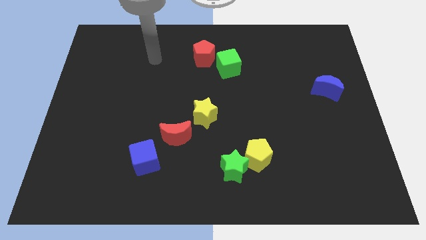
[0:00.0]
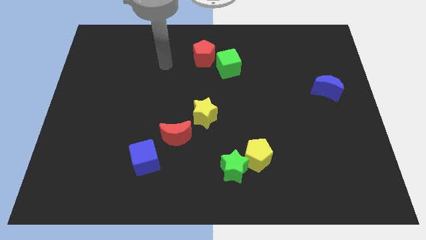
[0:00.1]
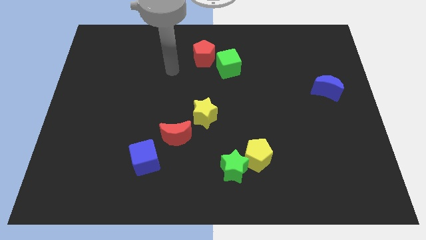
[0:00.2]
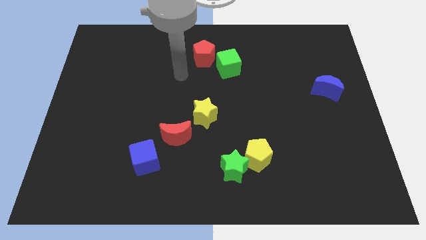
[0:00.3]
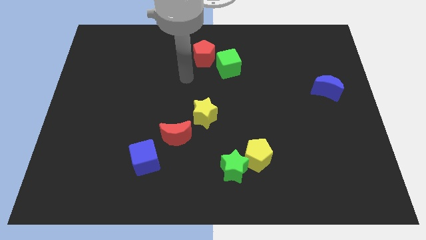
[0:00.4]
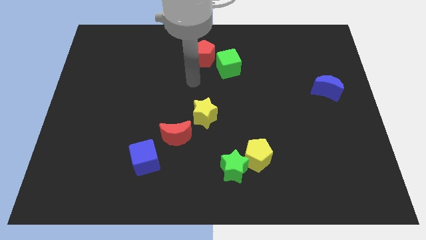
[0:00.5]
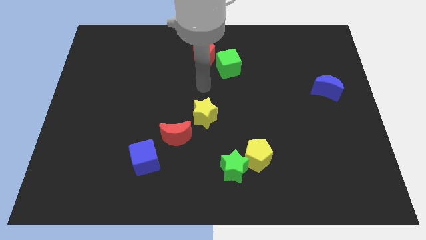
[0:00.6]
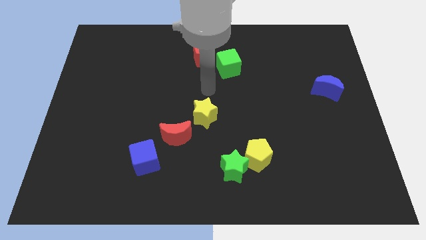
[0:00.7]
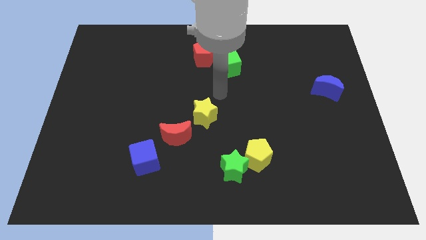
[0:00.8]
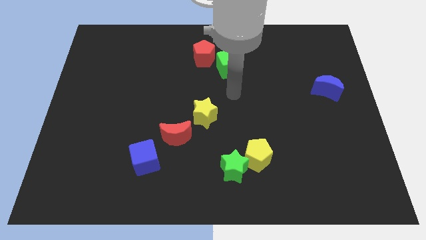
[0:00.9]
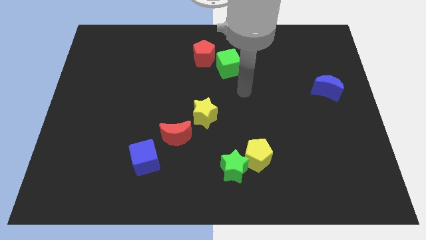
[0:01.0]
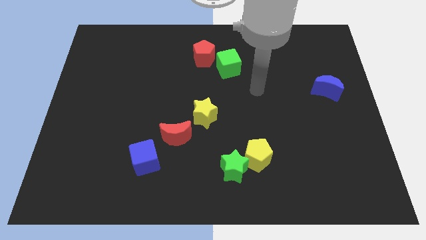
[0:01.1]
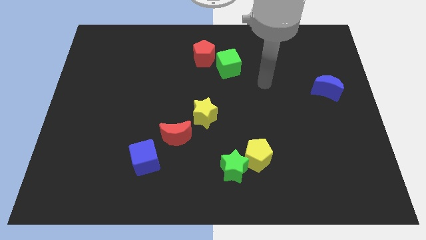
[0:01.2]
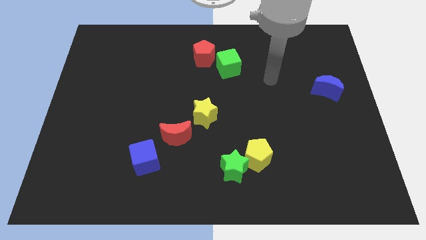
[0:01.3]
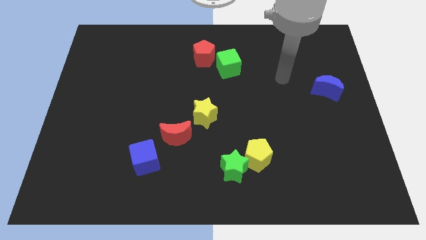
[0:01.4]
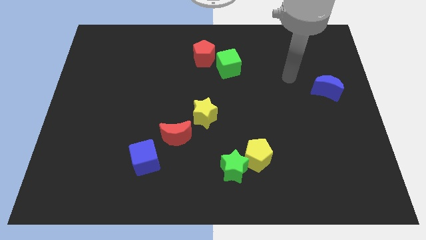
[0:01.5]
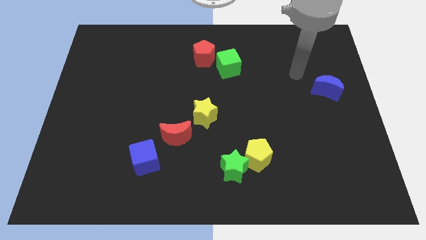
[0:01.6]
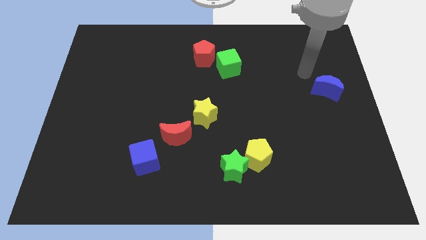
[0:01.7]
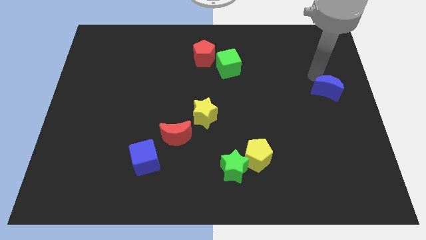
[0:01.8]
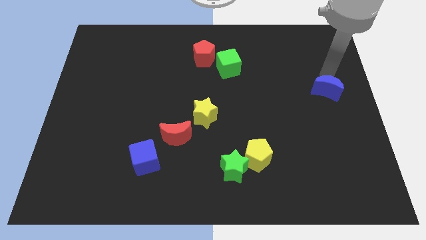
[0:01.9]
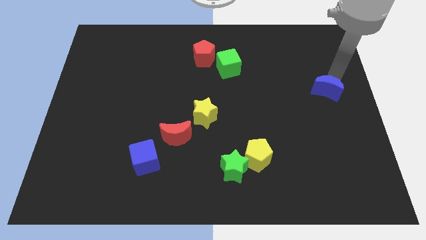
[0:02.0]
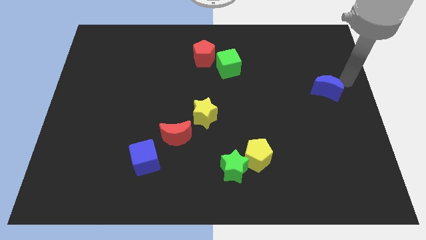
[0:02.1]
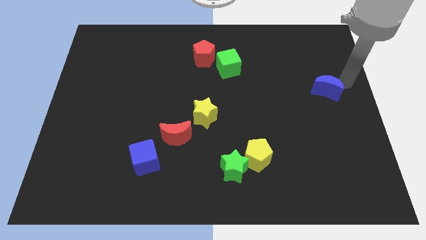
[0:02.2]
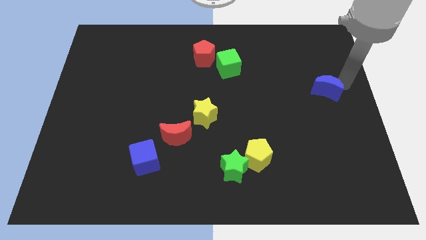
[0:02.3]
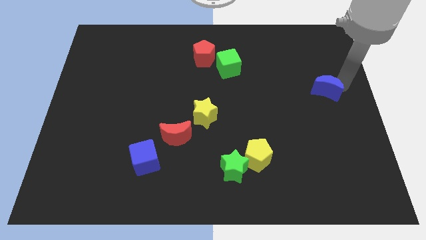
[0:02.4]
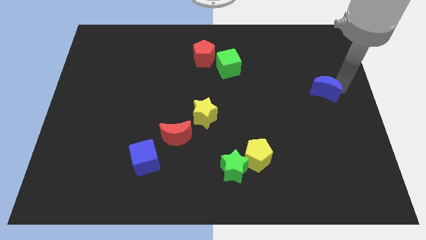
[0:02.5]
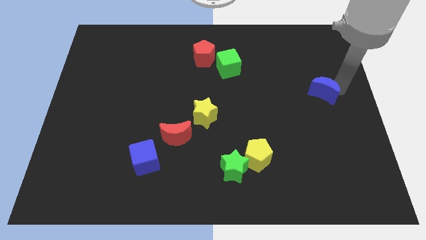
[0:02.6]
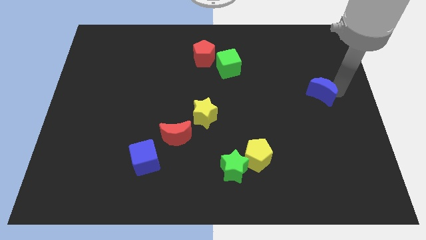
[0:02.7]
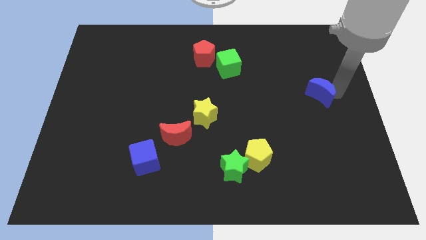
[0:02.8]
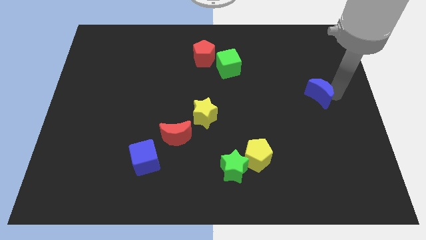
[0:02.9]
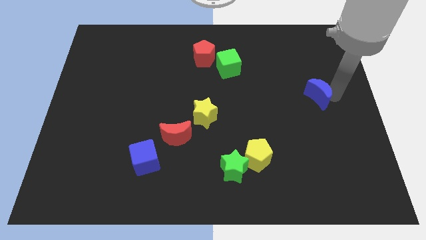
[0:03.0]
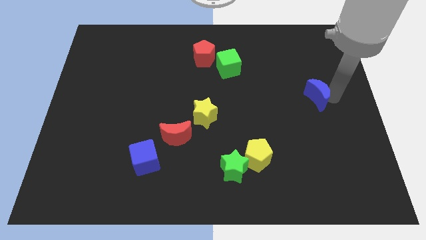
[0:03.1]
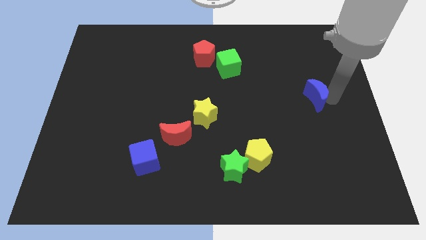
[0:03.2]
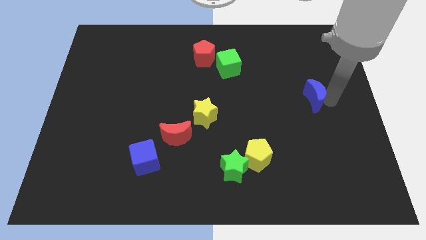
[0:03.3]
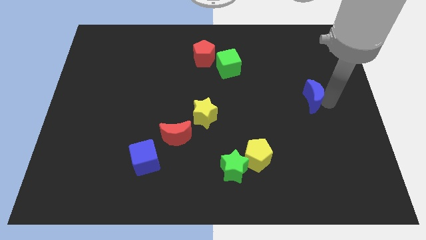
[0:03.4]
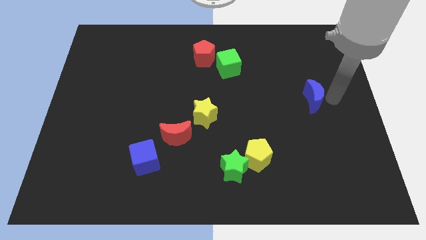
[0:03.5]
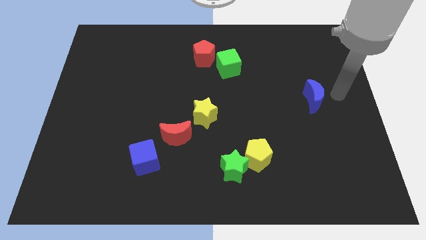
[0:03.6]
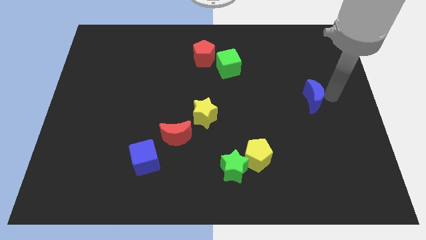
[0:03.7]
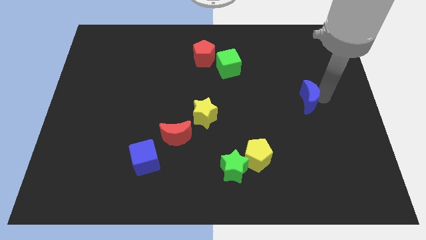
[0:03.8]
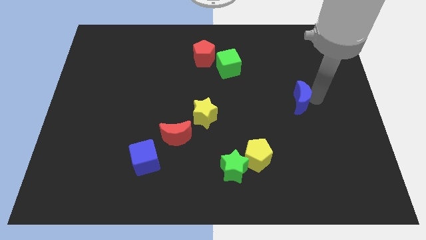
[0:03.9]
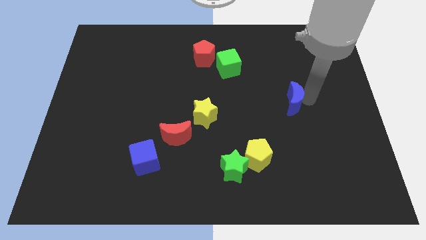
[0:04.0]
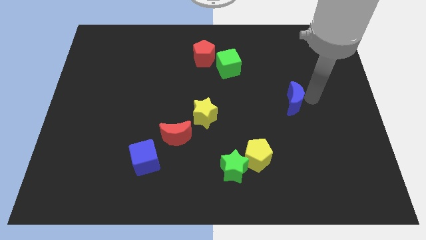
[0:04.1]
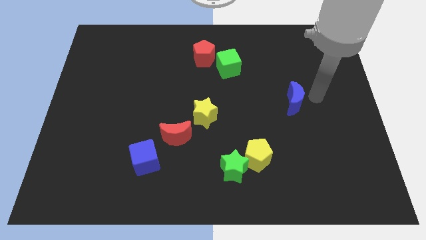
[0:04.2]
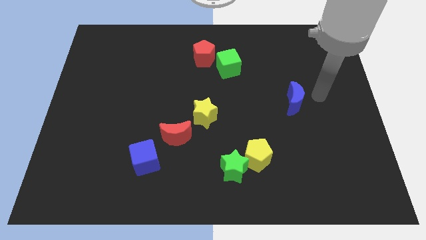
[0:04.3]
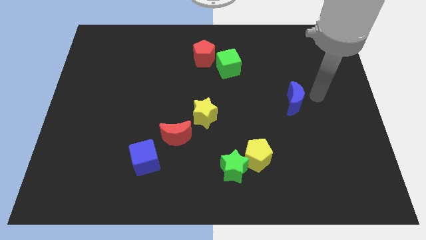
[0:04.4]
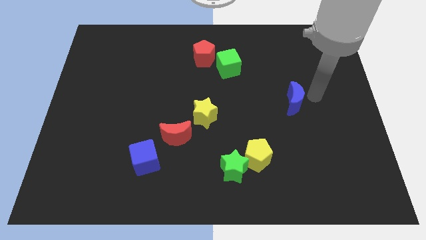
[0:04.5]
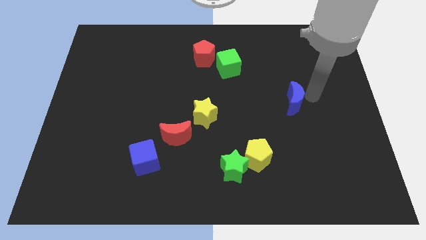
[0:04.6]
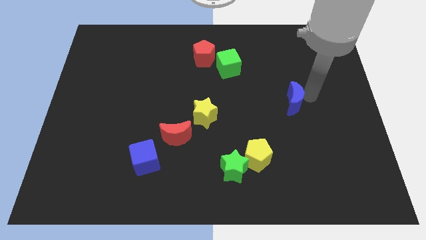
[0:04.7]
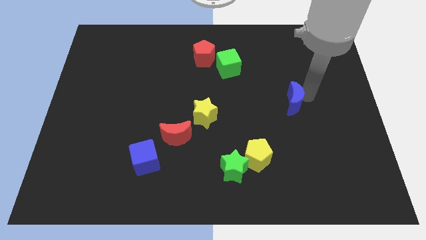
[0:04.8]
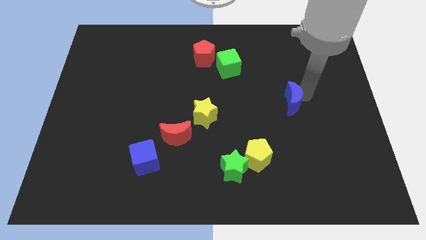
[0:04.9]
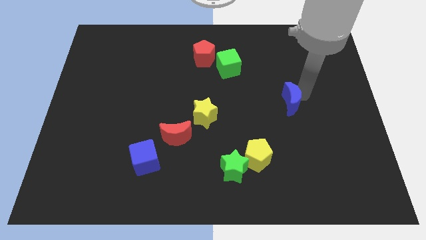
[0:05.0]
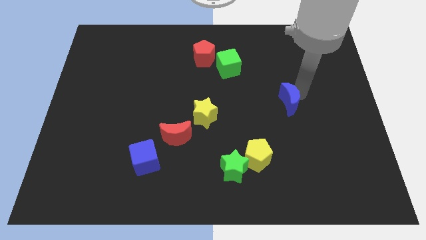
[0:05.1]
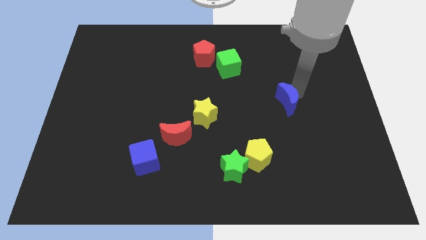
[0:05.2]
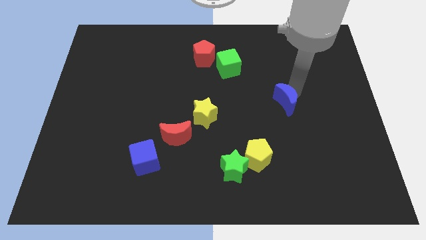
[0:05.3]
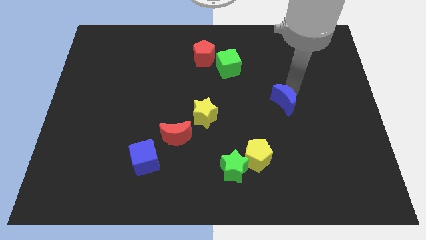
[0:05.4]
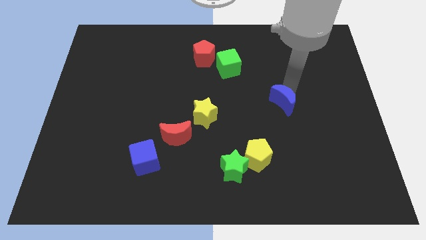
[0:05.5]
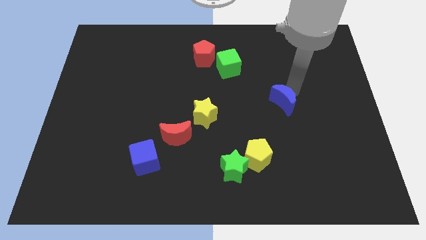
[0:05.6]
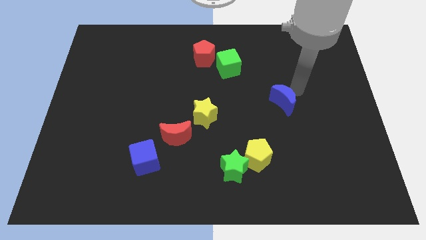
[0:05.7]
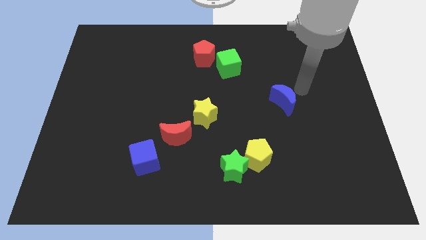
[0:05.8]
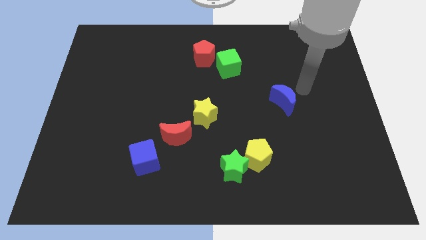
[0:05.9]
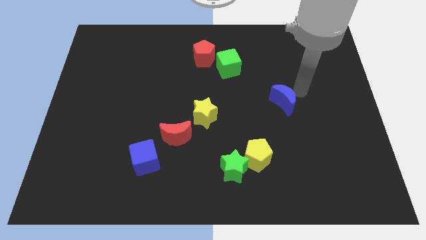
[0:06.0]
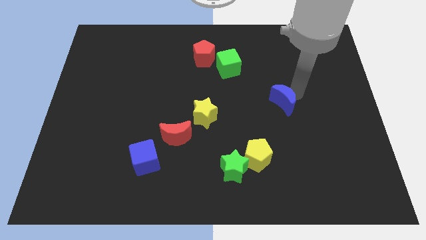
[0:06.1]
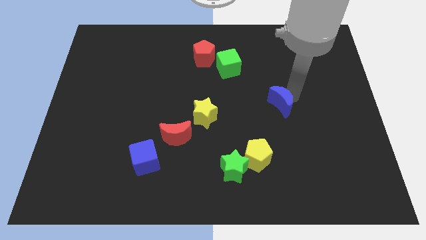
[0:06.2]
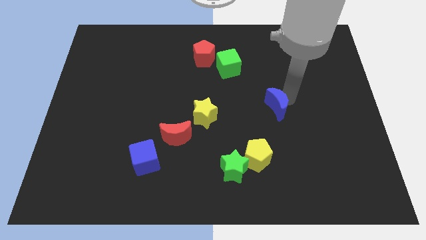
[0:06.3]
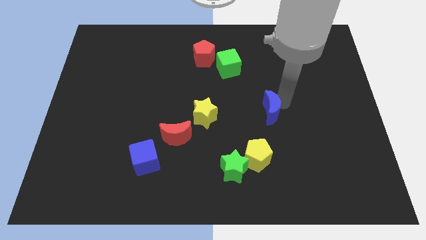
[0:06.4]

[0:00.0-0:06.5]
put the blue moon to the top of the yellow pentagon

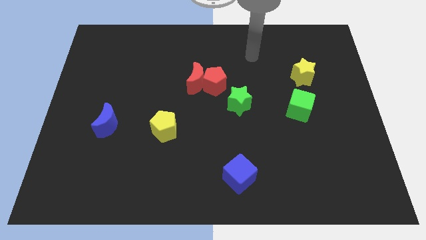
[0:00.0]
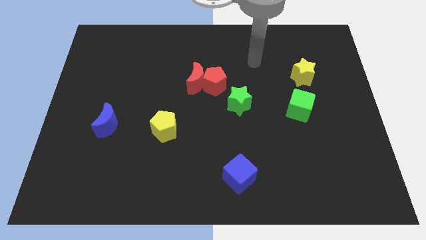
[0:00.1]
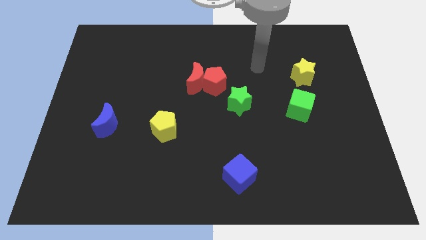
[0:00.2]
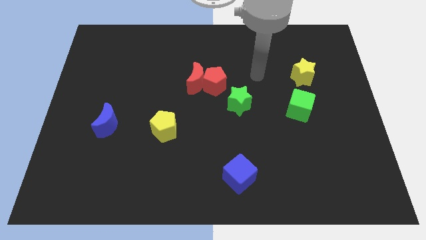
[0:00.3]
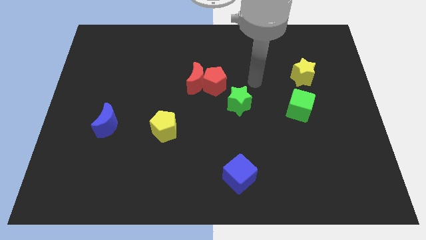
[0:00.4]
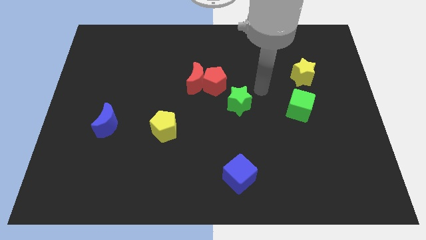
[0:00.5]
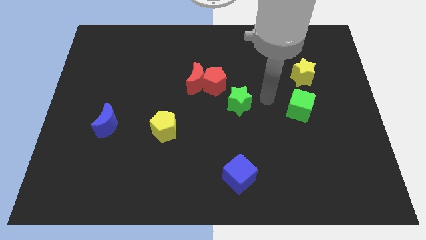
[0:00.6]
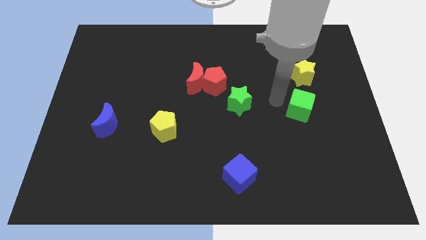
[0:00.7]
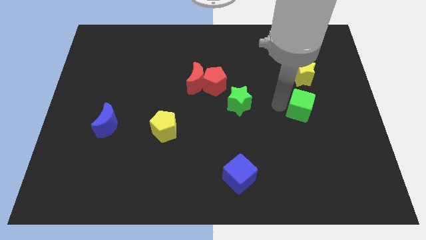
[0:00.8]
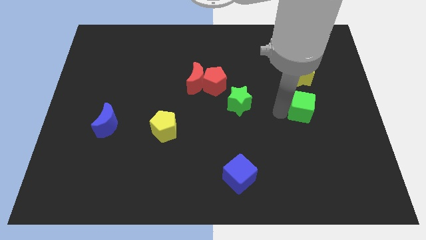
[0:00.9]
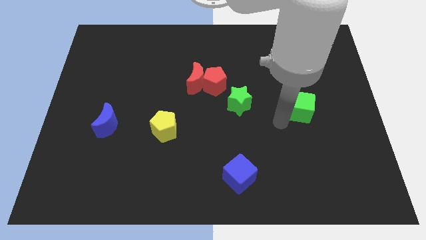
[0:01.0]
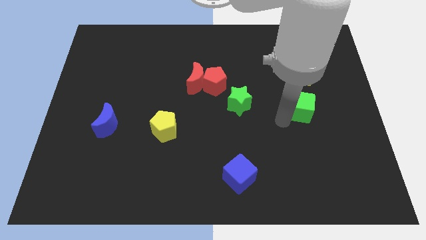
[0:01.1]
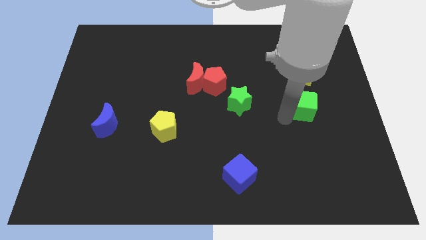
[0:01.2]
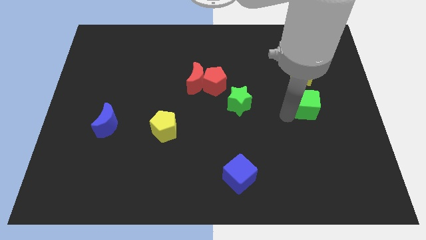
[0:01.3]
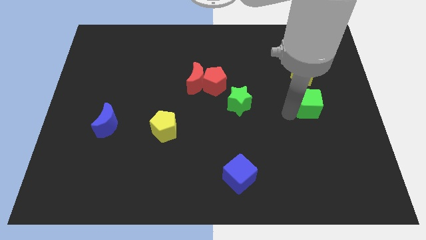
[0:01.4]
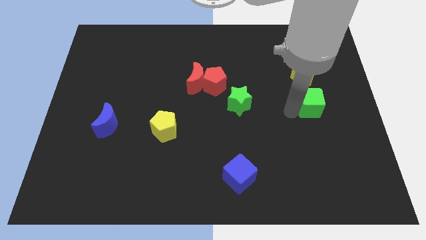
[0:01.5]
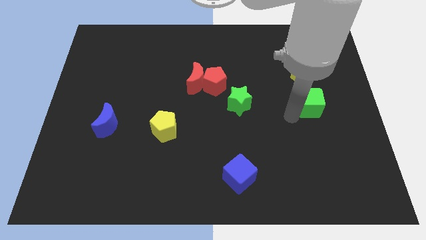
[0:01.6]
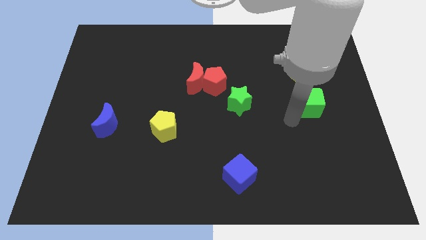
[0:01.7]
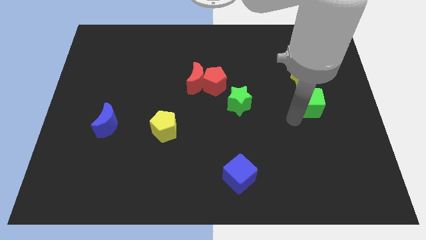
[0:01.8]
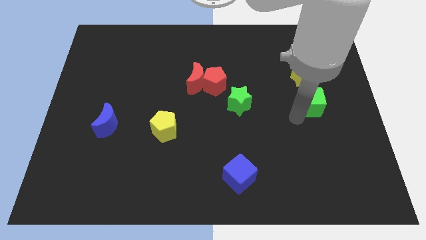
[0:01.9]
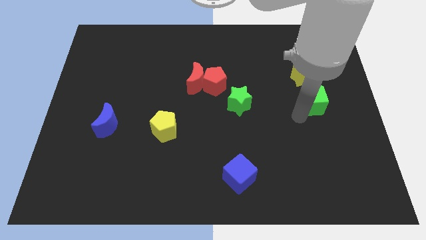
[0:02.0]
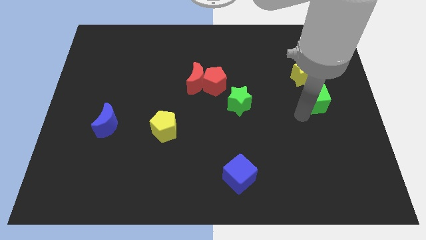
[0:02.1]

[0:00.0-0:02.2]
put the green cube diagonally down and to the right of the yellow star
